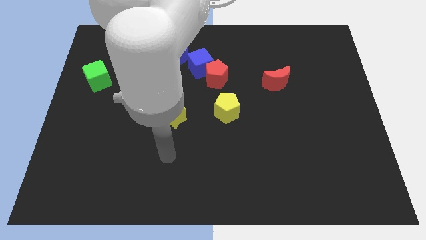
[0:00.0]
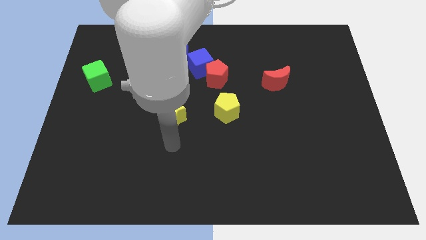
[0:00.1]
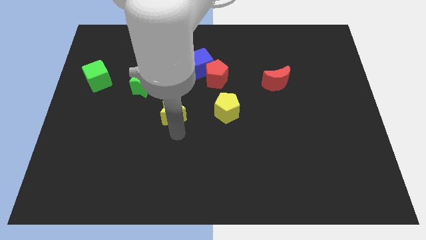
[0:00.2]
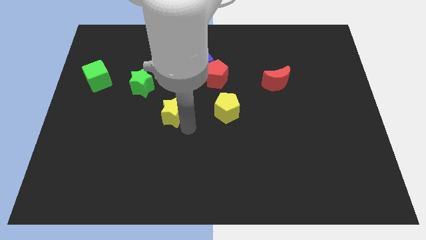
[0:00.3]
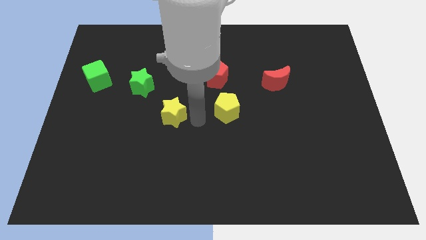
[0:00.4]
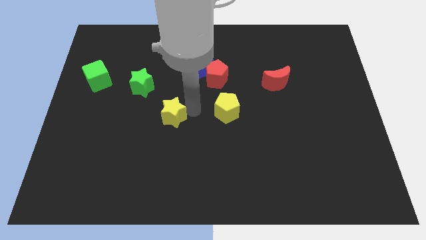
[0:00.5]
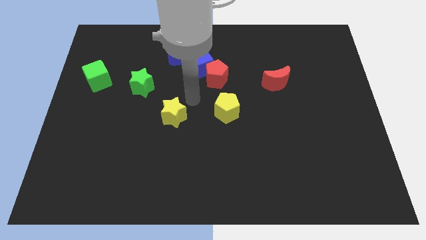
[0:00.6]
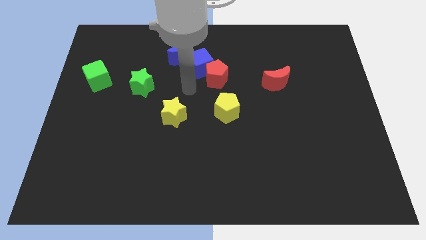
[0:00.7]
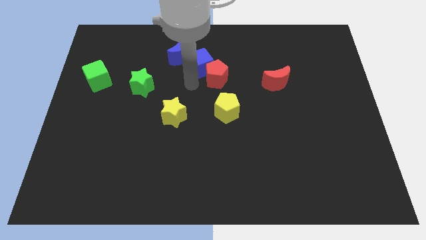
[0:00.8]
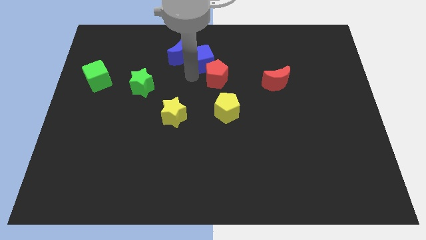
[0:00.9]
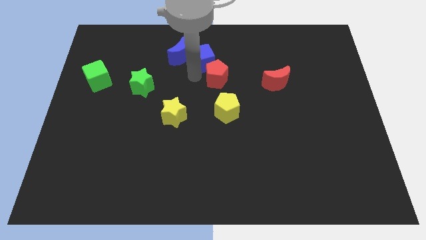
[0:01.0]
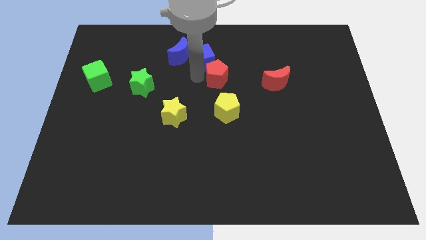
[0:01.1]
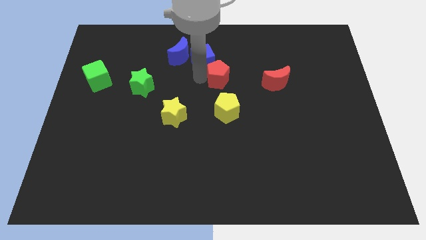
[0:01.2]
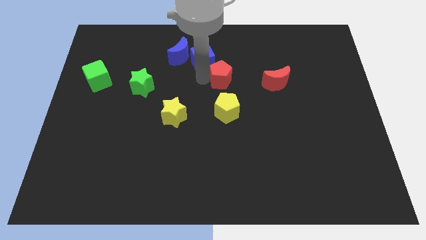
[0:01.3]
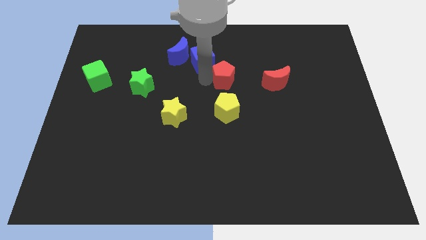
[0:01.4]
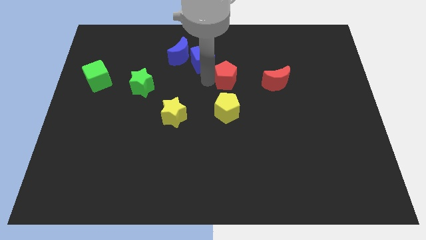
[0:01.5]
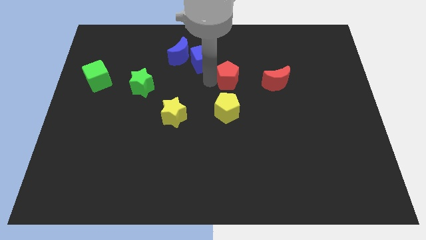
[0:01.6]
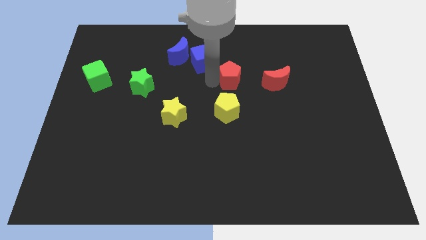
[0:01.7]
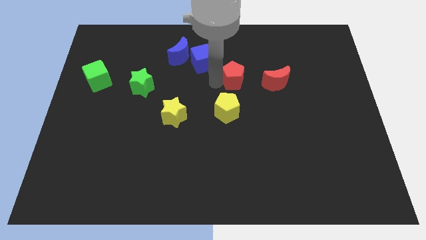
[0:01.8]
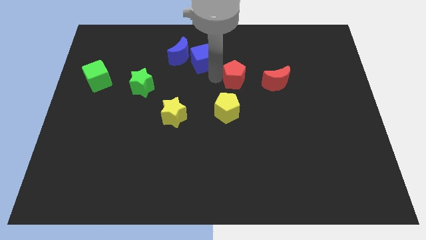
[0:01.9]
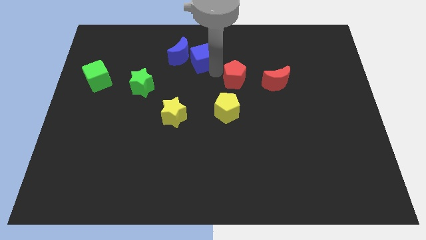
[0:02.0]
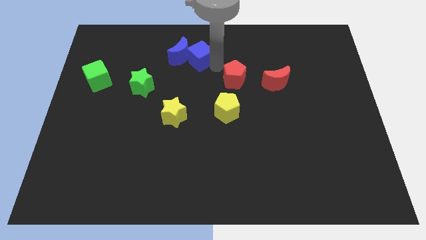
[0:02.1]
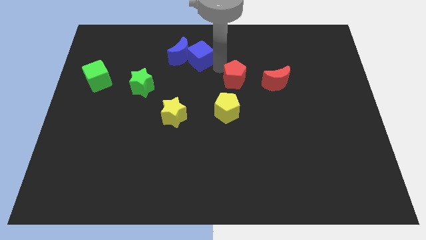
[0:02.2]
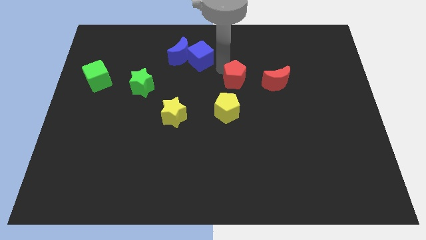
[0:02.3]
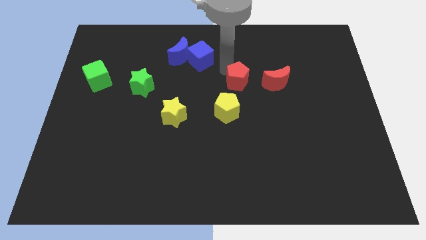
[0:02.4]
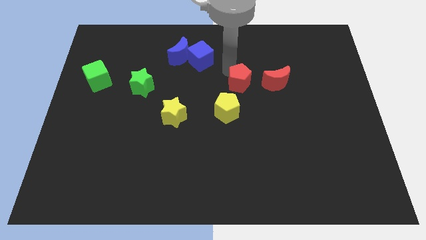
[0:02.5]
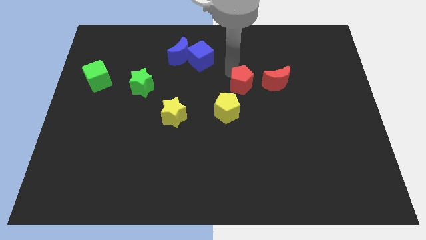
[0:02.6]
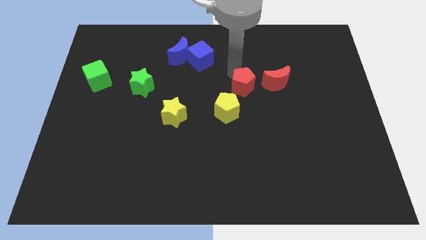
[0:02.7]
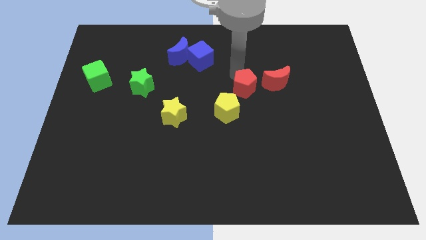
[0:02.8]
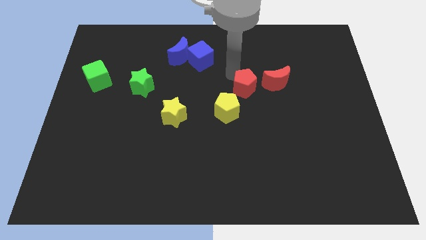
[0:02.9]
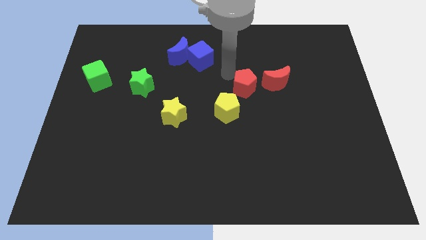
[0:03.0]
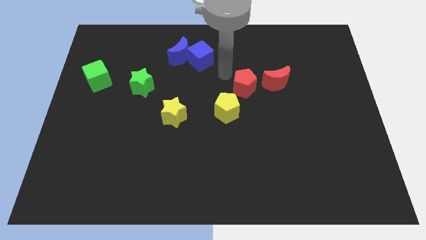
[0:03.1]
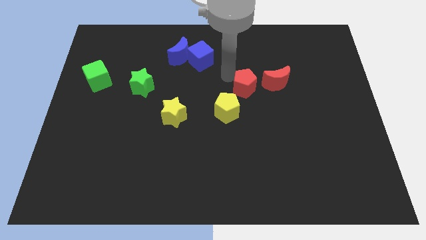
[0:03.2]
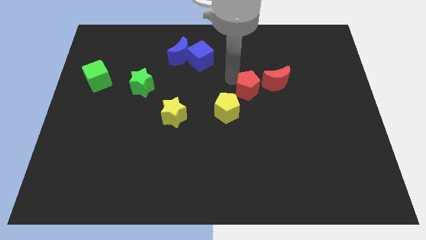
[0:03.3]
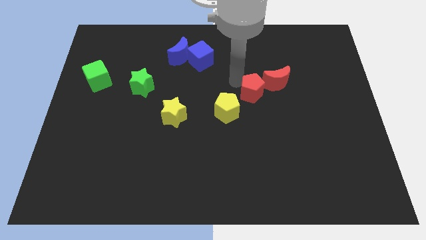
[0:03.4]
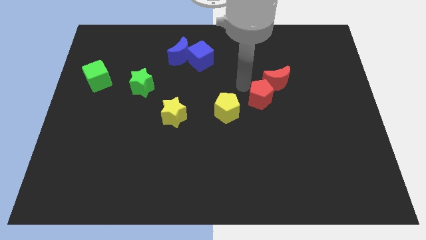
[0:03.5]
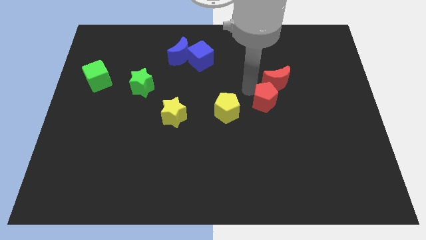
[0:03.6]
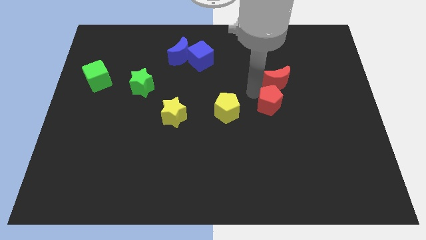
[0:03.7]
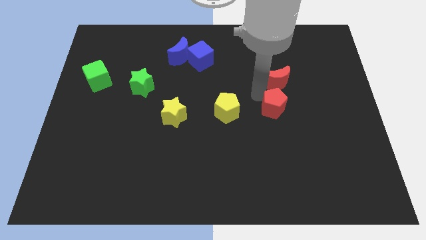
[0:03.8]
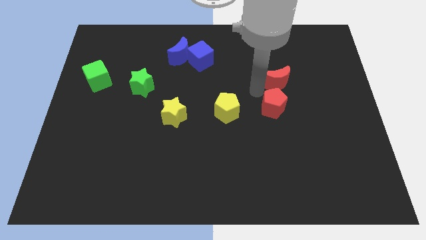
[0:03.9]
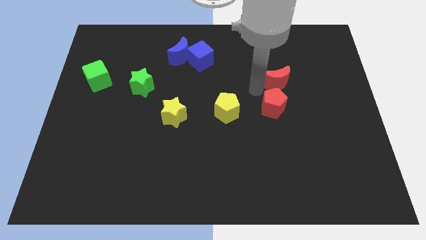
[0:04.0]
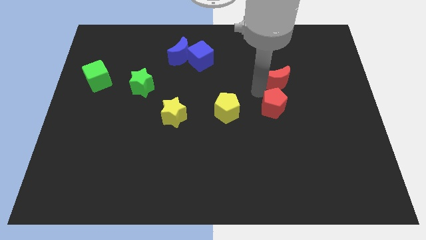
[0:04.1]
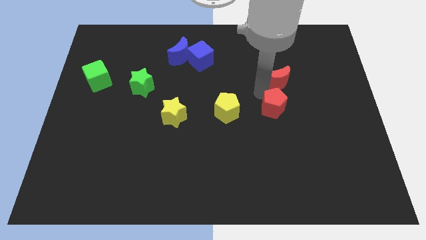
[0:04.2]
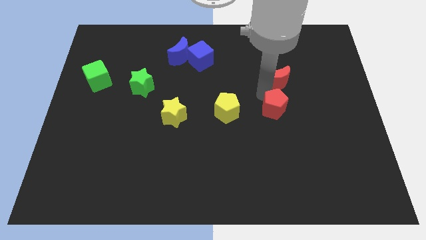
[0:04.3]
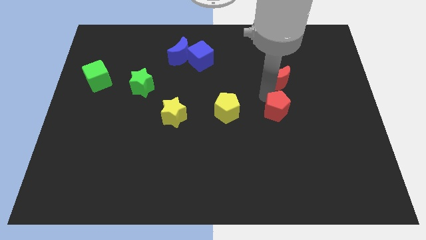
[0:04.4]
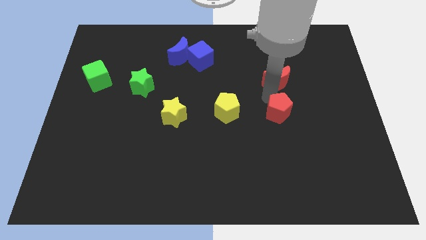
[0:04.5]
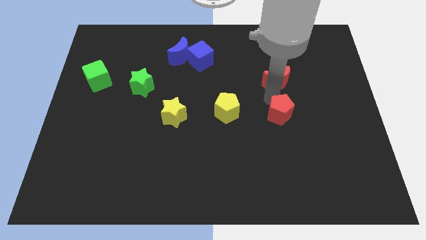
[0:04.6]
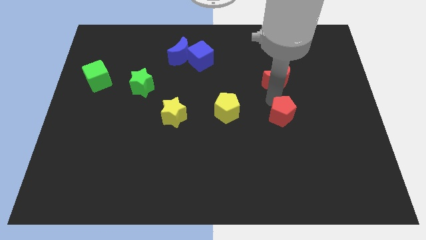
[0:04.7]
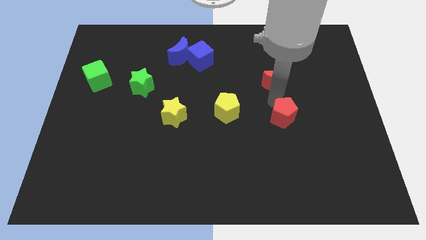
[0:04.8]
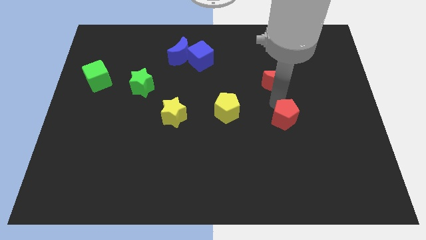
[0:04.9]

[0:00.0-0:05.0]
move the red pentagon down and then to the right

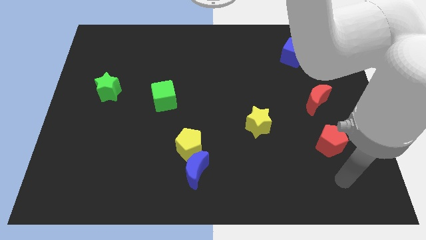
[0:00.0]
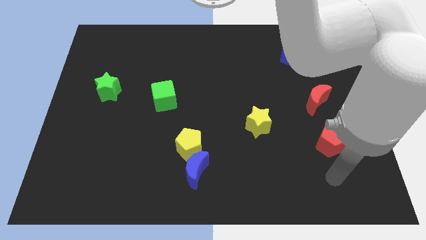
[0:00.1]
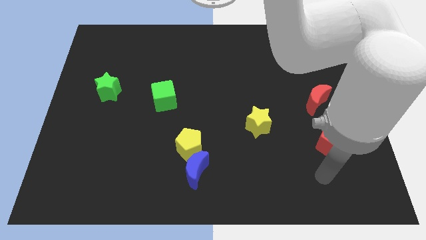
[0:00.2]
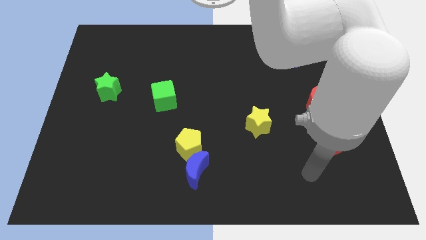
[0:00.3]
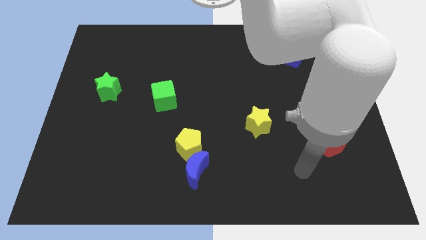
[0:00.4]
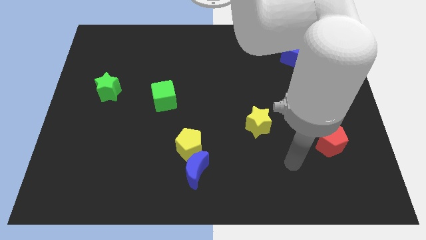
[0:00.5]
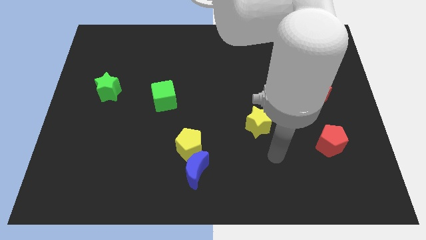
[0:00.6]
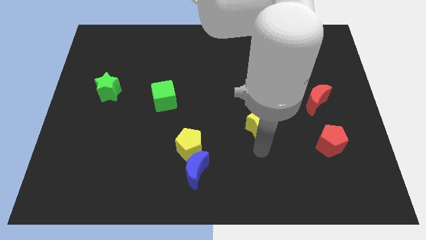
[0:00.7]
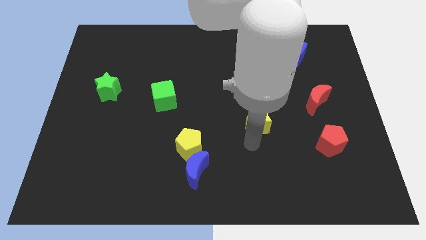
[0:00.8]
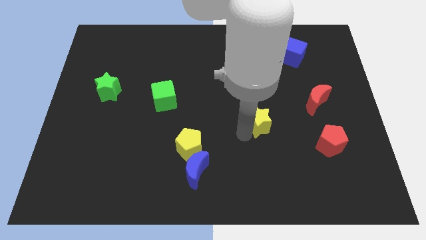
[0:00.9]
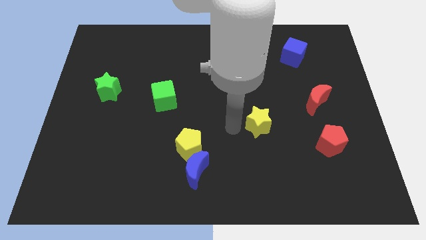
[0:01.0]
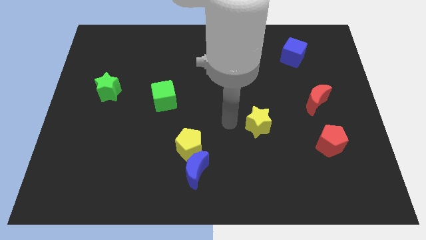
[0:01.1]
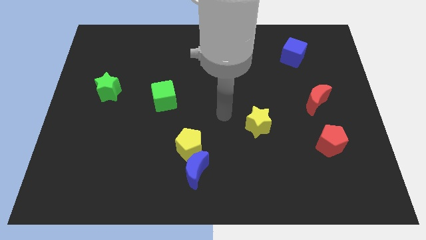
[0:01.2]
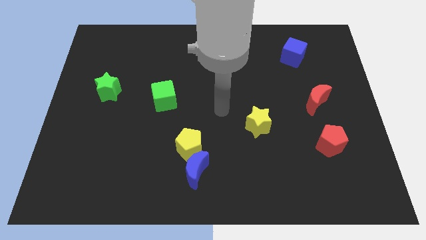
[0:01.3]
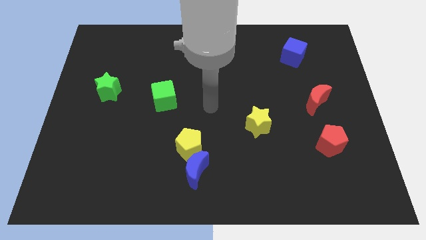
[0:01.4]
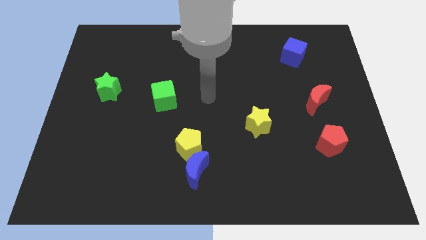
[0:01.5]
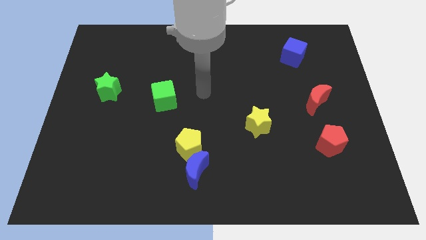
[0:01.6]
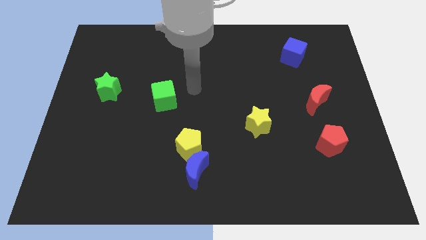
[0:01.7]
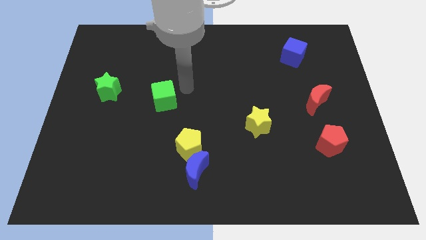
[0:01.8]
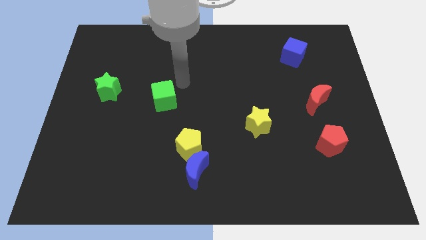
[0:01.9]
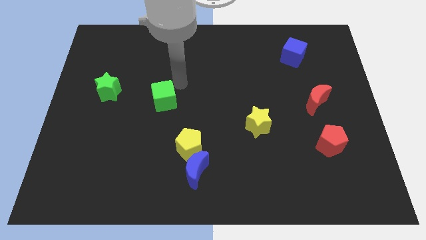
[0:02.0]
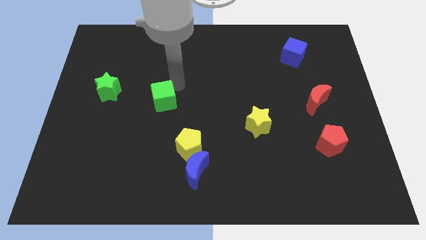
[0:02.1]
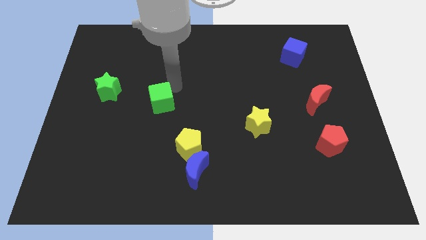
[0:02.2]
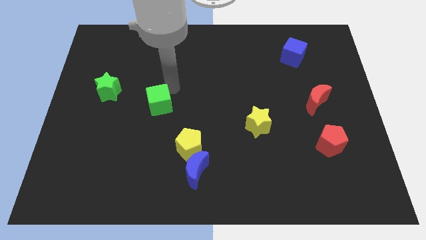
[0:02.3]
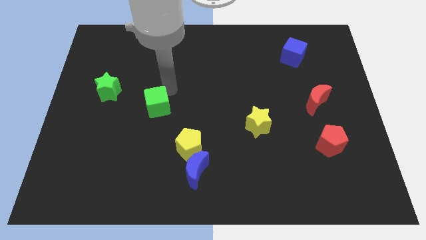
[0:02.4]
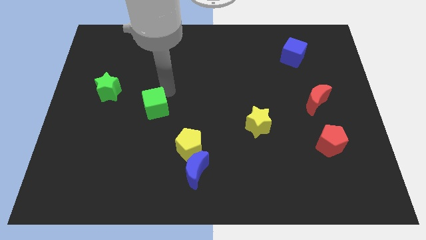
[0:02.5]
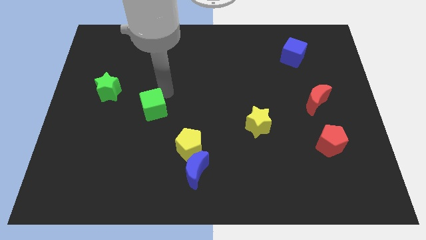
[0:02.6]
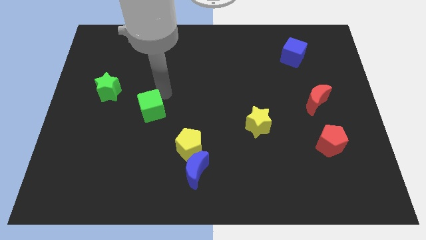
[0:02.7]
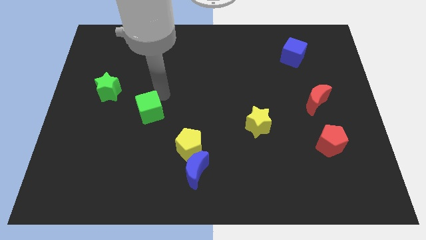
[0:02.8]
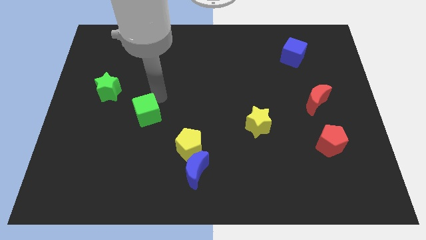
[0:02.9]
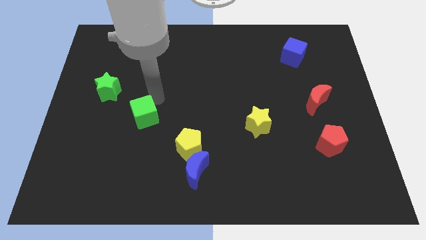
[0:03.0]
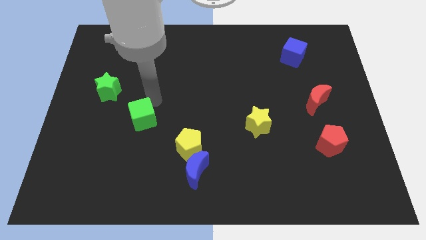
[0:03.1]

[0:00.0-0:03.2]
slightly push the green cube down and then to the left
